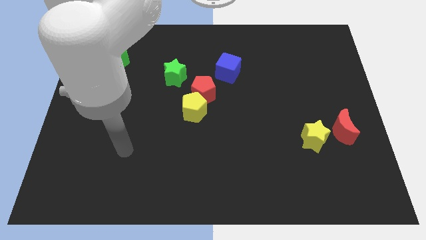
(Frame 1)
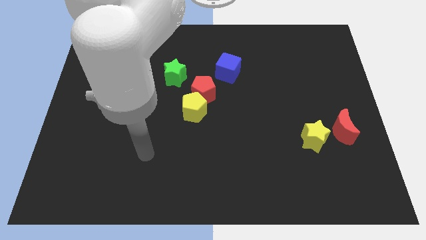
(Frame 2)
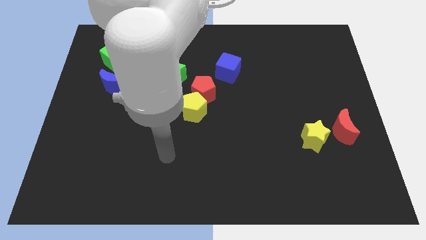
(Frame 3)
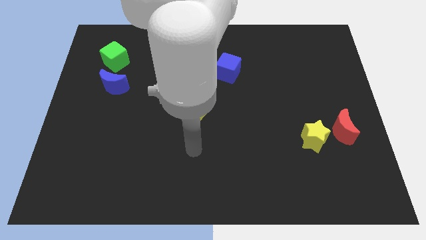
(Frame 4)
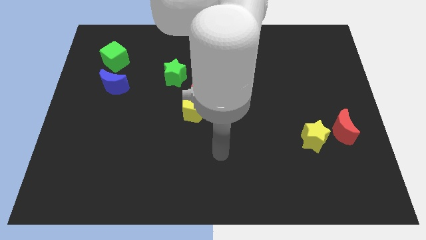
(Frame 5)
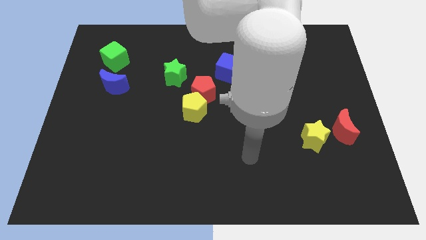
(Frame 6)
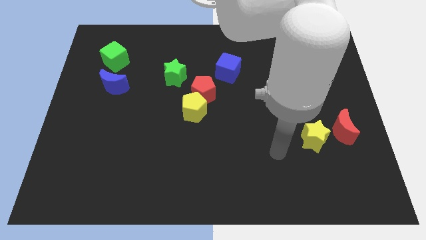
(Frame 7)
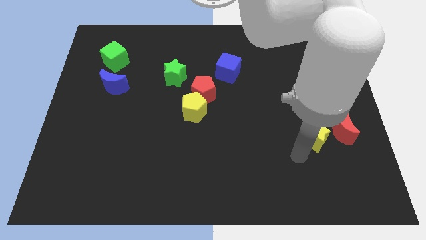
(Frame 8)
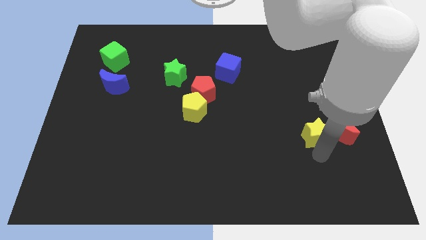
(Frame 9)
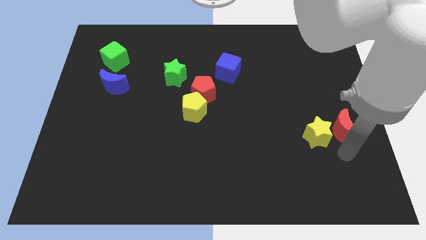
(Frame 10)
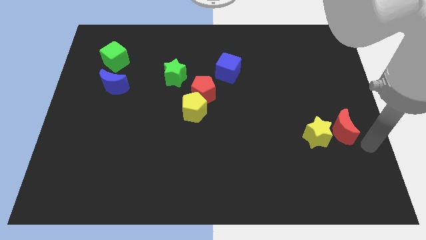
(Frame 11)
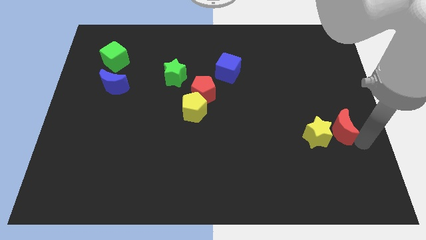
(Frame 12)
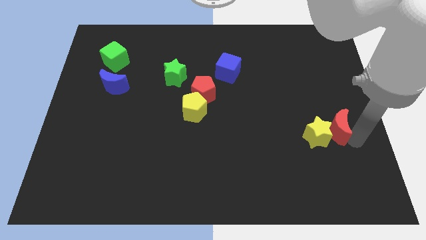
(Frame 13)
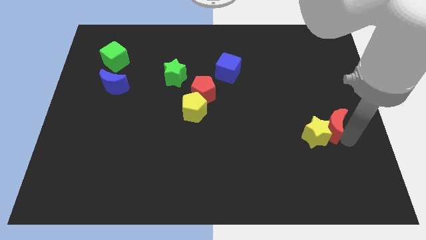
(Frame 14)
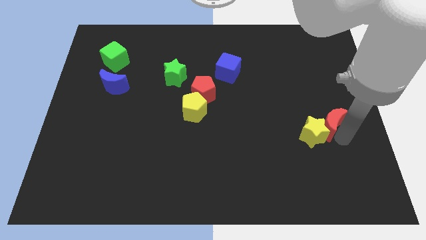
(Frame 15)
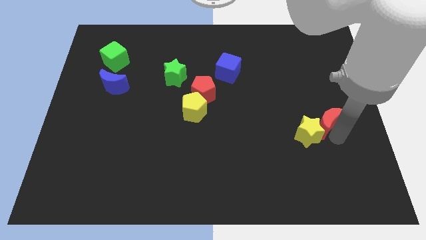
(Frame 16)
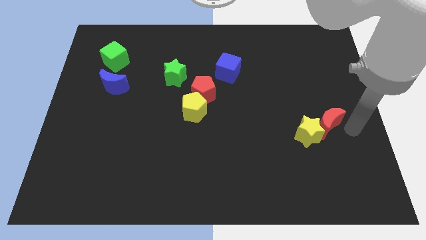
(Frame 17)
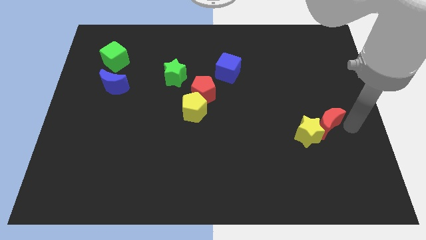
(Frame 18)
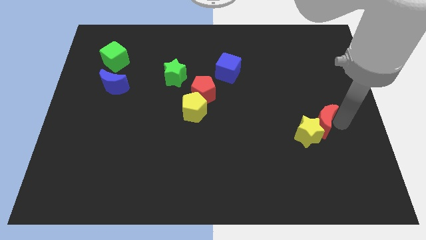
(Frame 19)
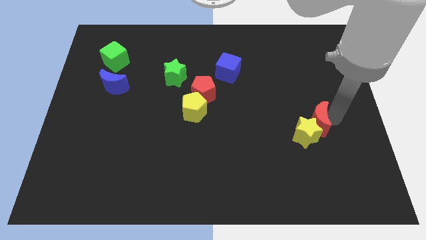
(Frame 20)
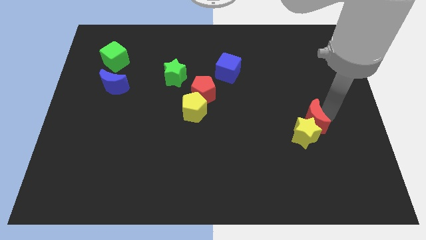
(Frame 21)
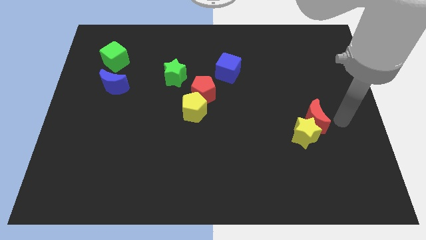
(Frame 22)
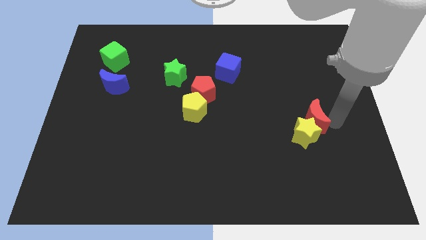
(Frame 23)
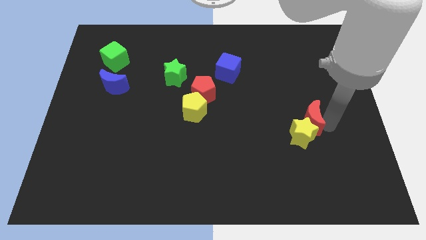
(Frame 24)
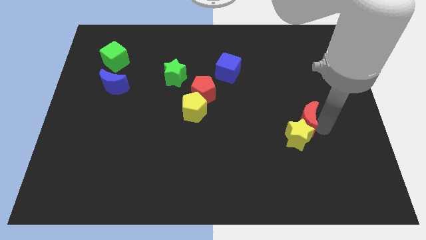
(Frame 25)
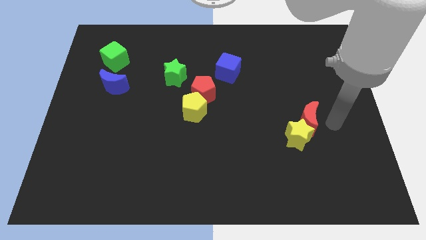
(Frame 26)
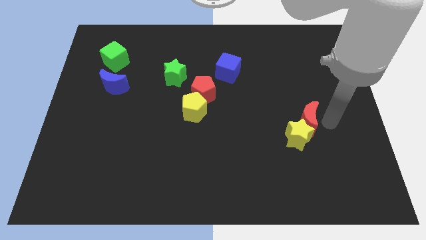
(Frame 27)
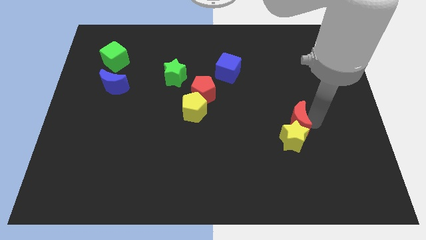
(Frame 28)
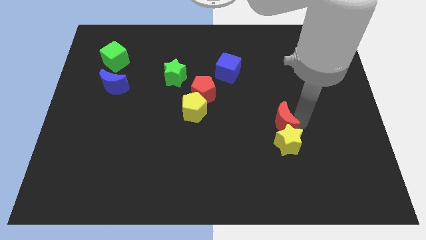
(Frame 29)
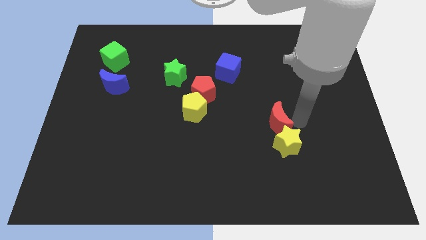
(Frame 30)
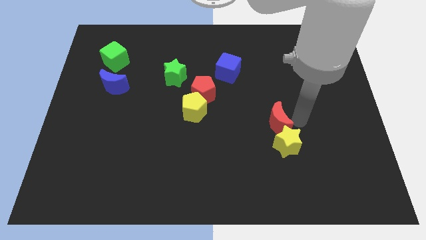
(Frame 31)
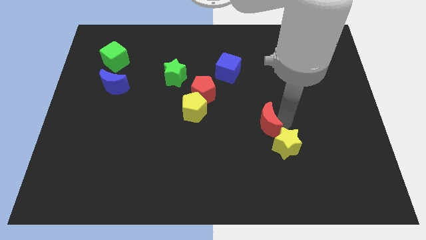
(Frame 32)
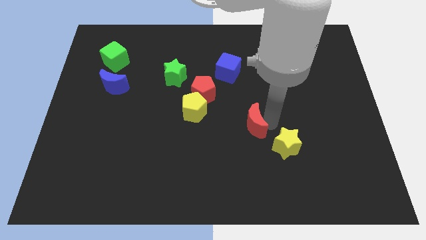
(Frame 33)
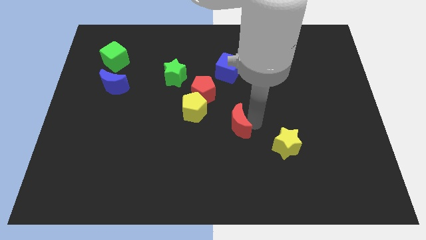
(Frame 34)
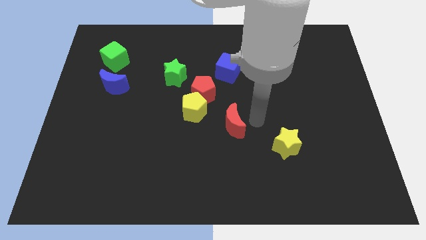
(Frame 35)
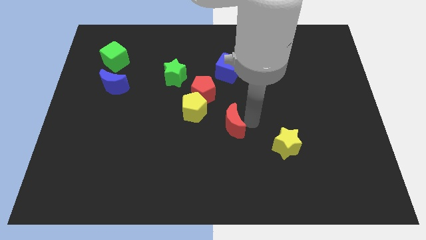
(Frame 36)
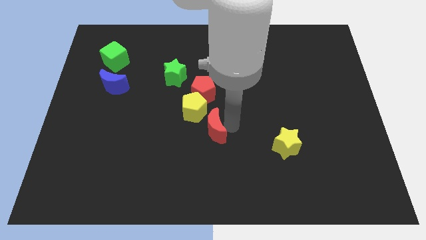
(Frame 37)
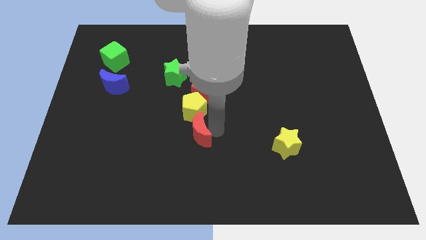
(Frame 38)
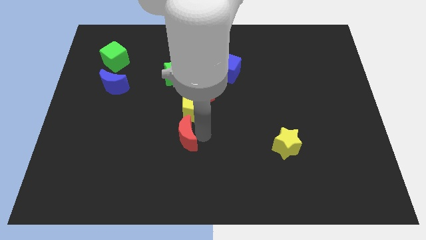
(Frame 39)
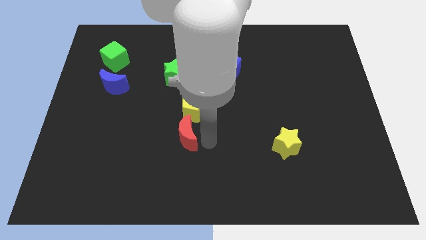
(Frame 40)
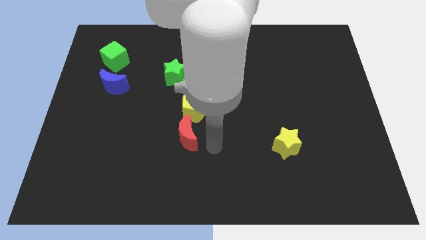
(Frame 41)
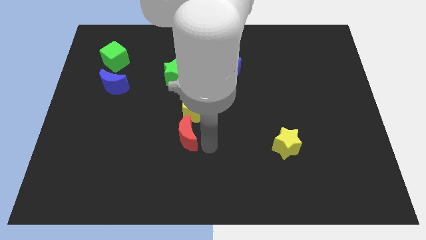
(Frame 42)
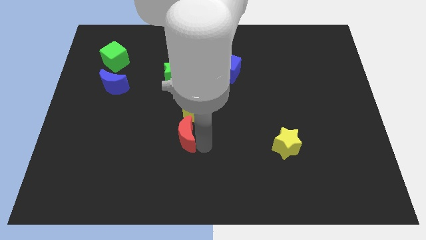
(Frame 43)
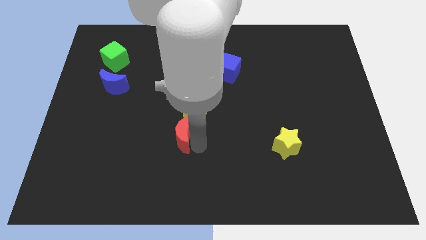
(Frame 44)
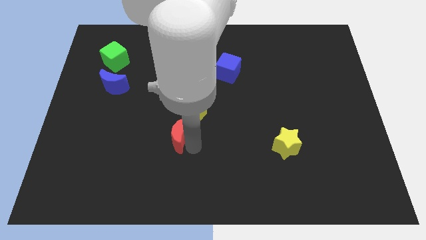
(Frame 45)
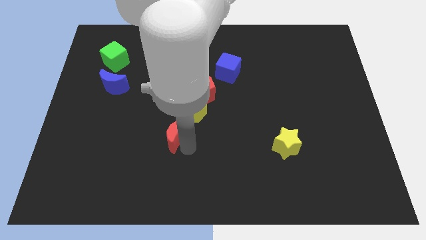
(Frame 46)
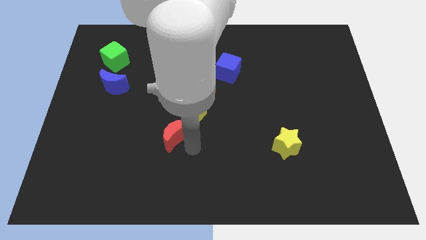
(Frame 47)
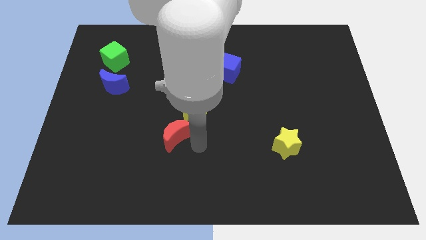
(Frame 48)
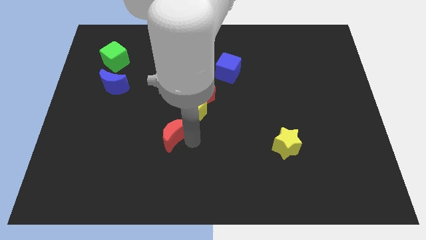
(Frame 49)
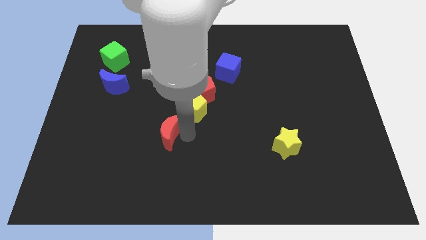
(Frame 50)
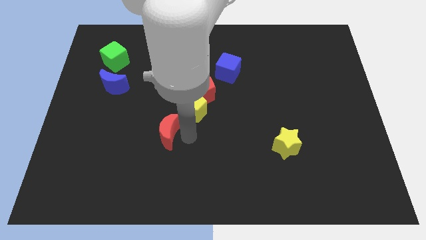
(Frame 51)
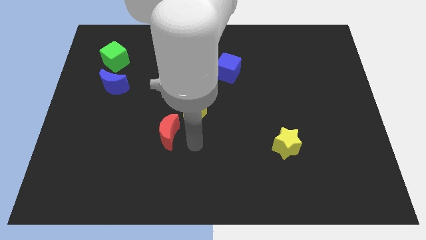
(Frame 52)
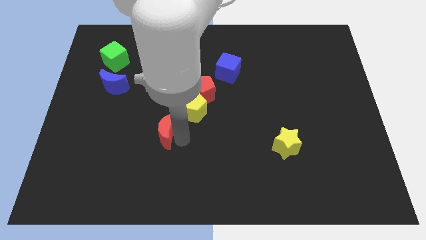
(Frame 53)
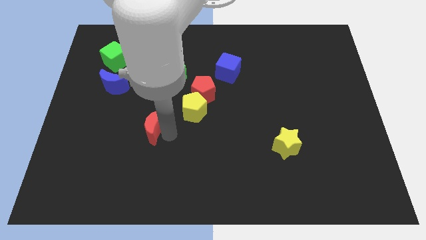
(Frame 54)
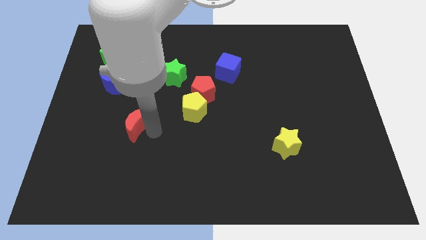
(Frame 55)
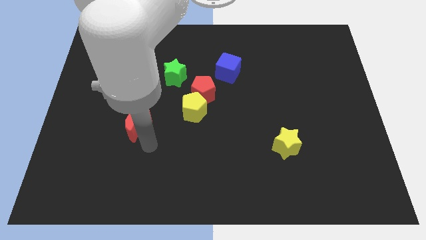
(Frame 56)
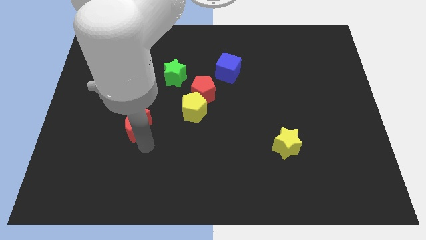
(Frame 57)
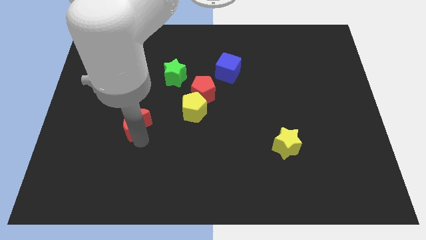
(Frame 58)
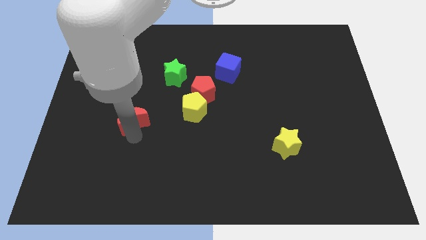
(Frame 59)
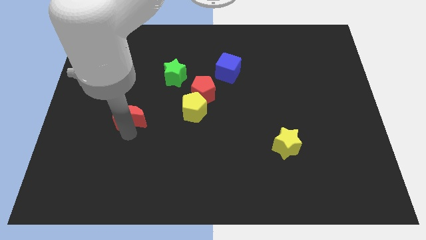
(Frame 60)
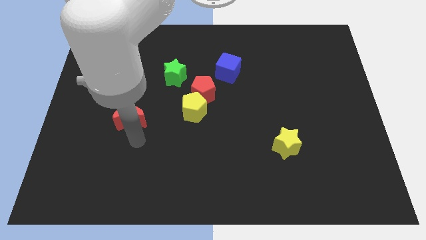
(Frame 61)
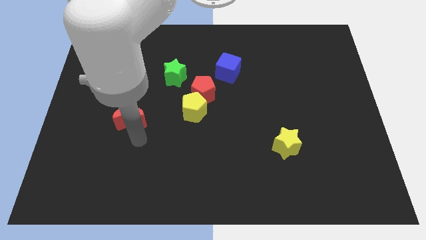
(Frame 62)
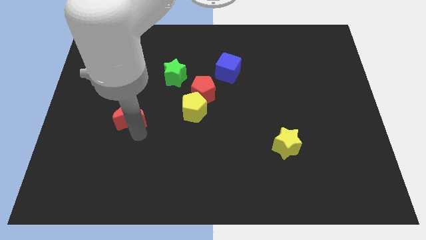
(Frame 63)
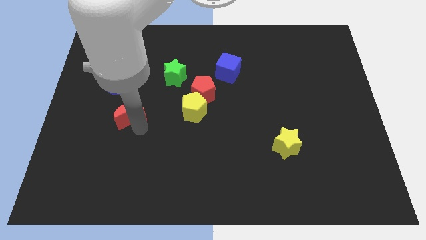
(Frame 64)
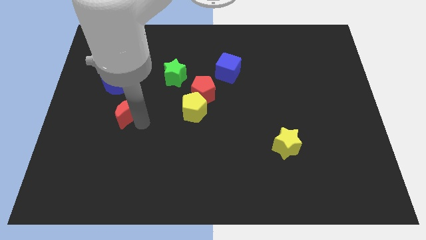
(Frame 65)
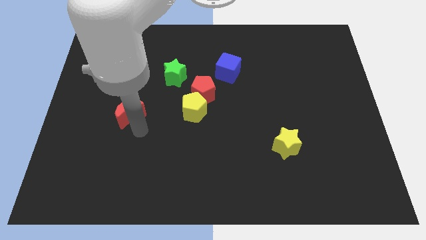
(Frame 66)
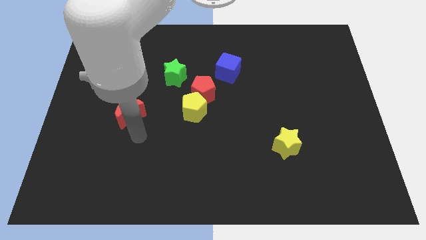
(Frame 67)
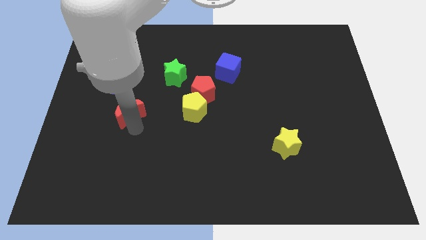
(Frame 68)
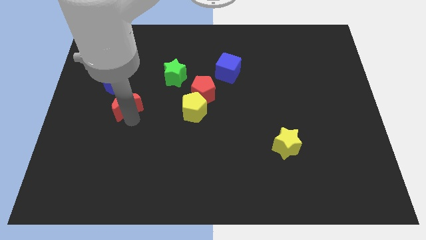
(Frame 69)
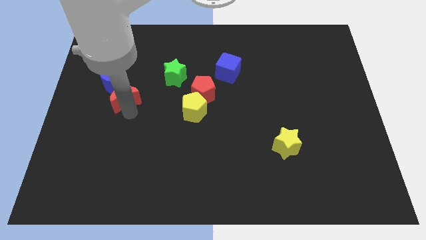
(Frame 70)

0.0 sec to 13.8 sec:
move the red moon next to the blue moon

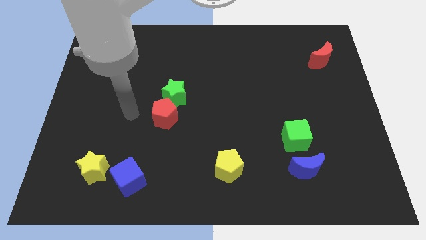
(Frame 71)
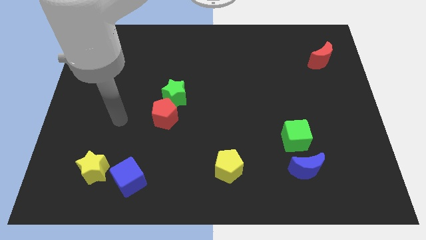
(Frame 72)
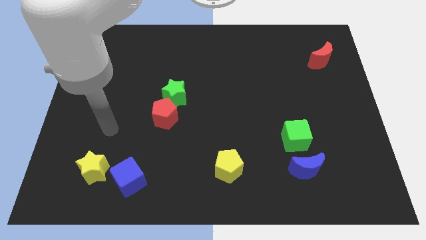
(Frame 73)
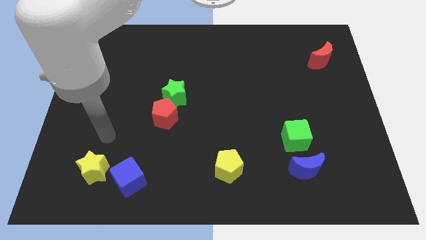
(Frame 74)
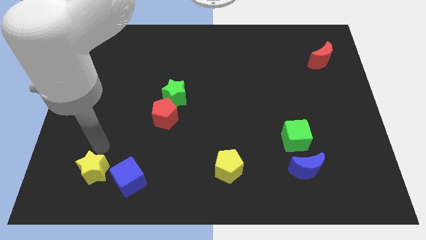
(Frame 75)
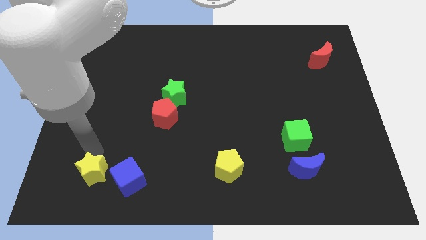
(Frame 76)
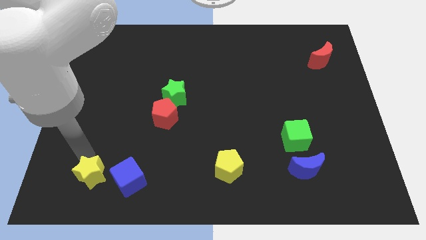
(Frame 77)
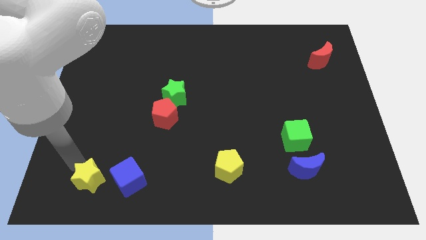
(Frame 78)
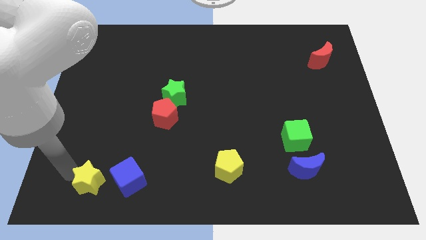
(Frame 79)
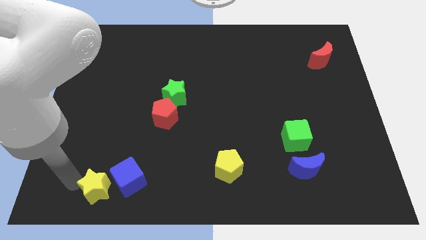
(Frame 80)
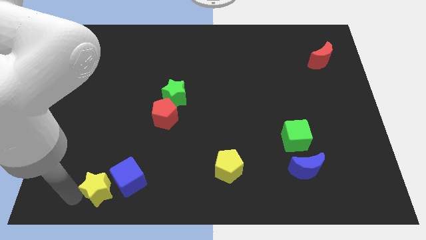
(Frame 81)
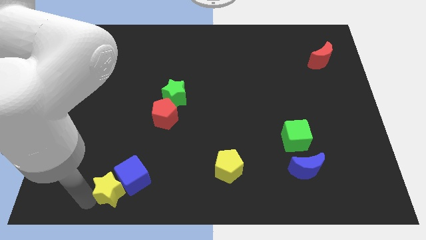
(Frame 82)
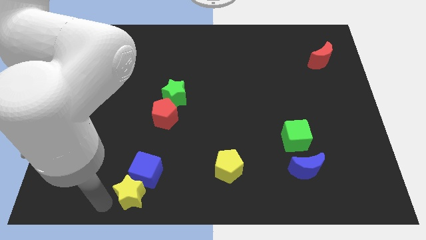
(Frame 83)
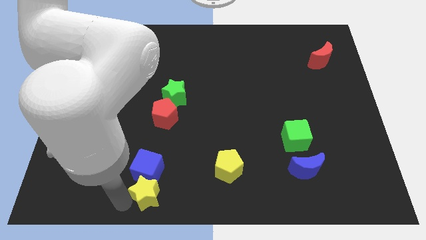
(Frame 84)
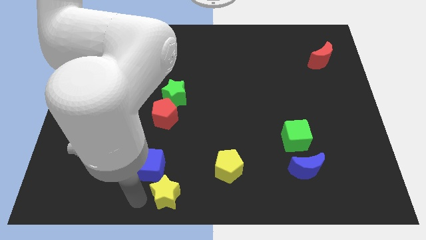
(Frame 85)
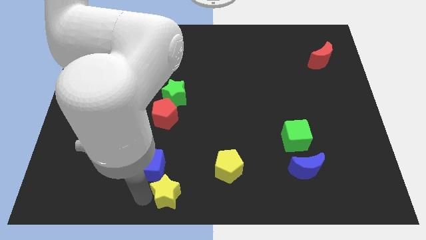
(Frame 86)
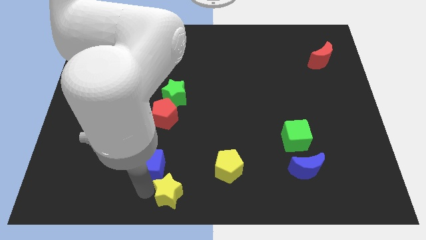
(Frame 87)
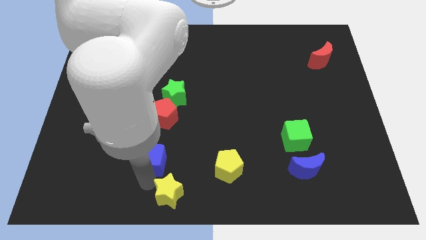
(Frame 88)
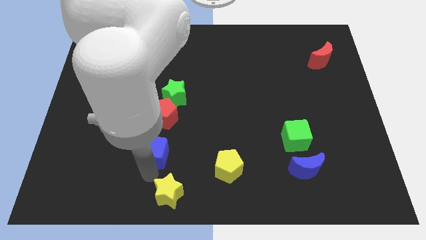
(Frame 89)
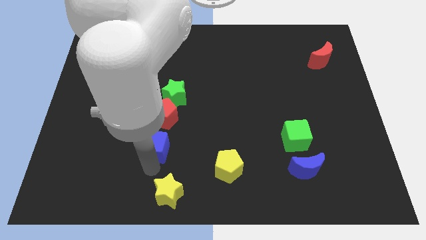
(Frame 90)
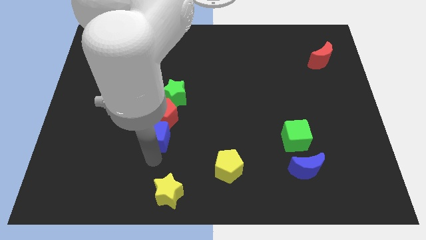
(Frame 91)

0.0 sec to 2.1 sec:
slide the blue cube close to the red pentagon
